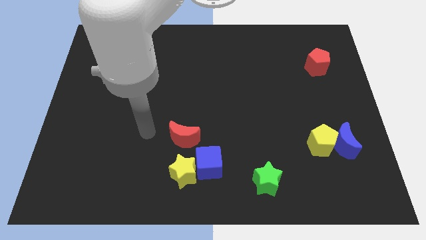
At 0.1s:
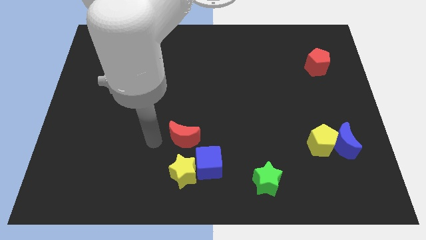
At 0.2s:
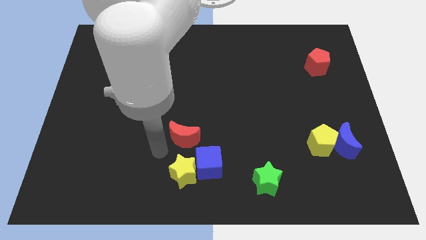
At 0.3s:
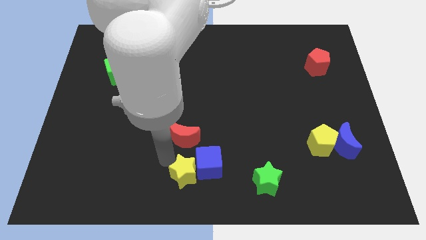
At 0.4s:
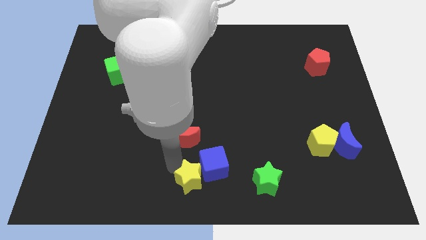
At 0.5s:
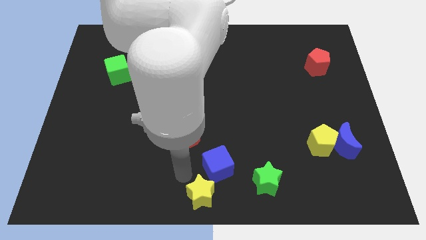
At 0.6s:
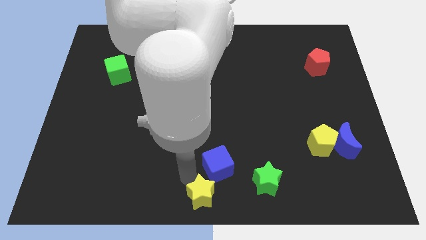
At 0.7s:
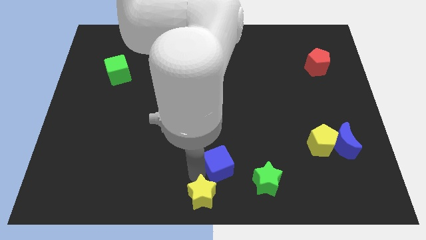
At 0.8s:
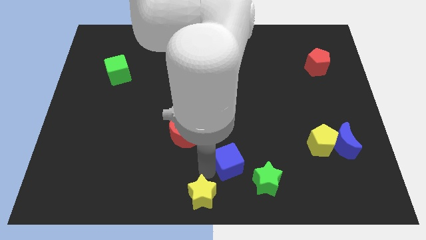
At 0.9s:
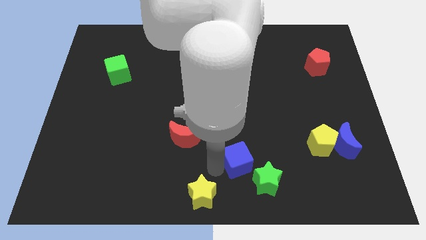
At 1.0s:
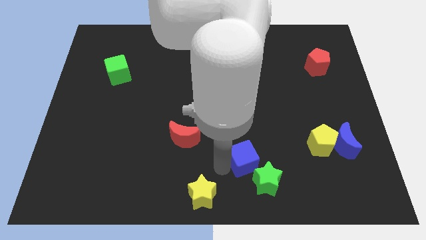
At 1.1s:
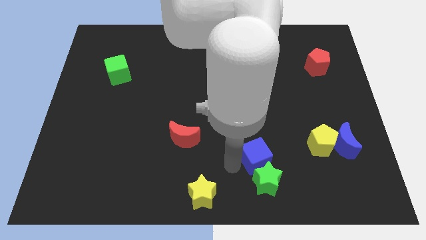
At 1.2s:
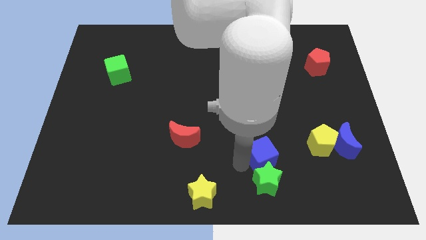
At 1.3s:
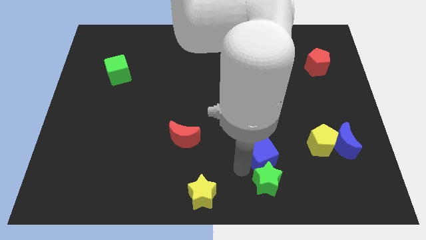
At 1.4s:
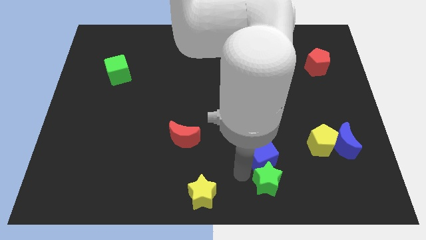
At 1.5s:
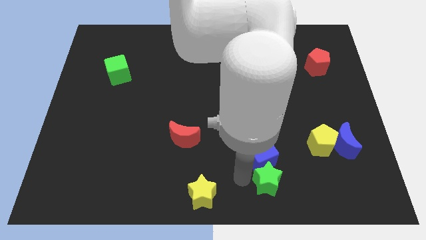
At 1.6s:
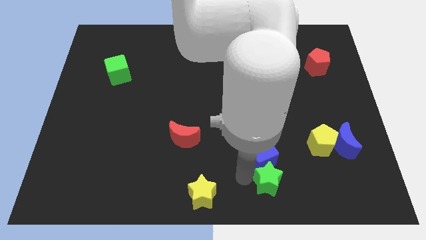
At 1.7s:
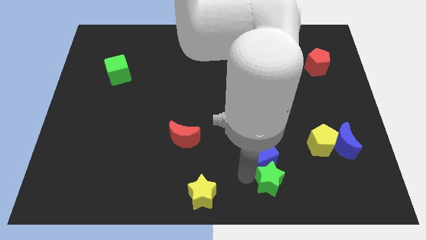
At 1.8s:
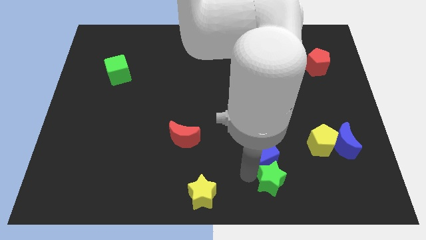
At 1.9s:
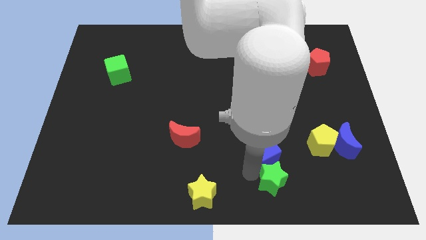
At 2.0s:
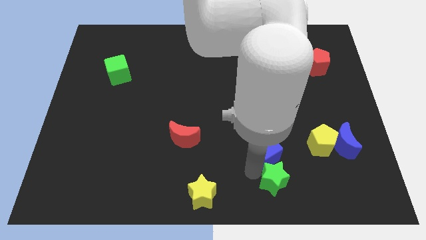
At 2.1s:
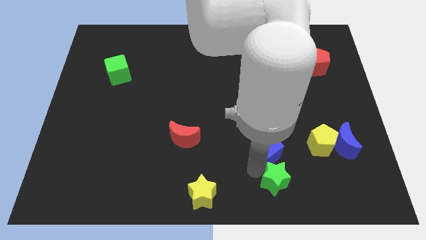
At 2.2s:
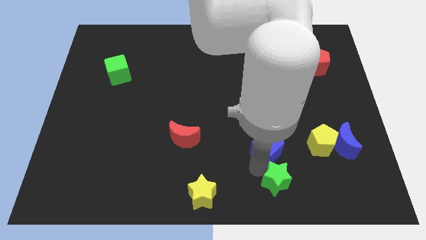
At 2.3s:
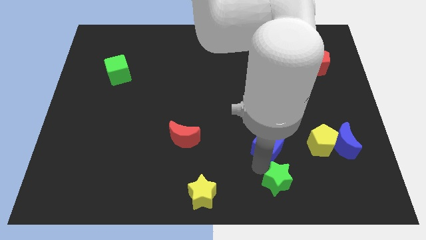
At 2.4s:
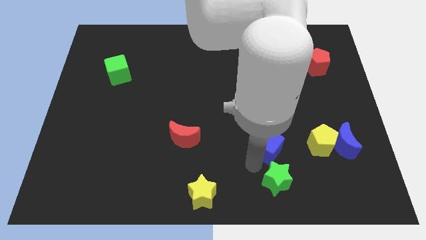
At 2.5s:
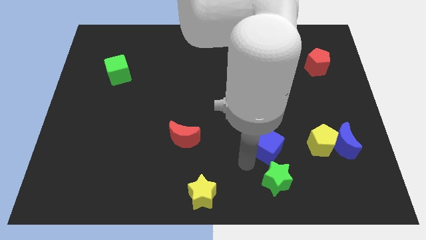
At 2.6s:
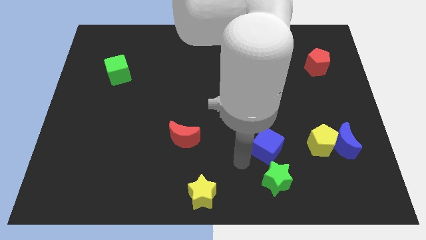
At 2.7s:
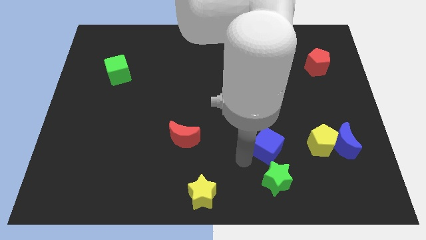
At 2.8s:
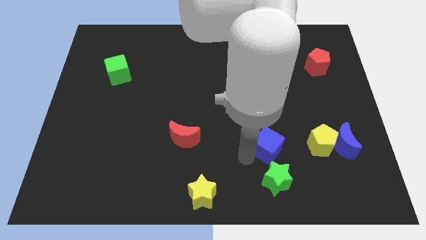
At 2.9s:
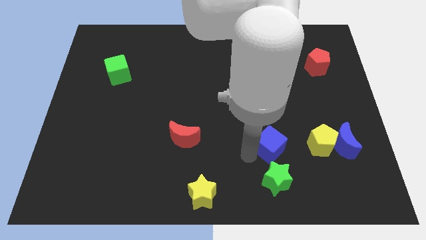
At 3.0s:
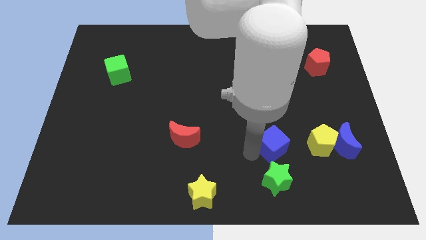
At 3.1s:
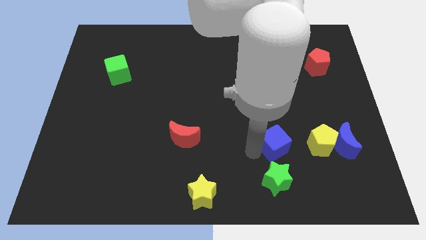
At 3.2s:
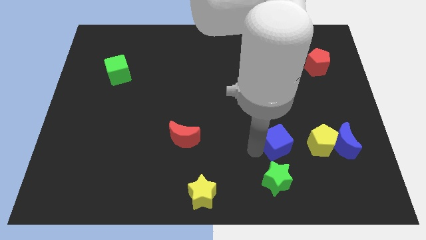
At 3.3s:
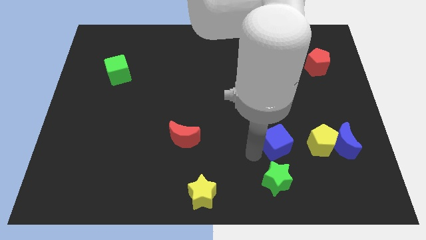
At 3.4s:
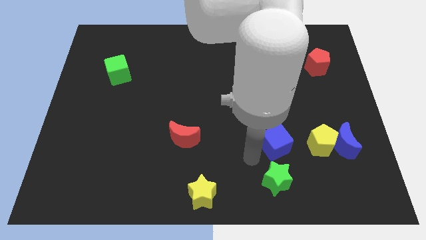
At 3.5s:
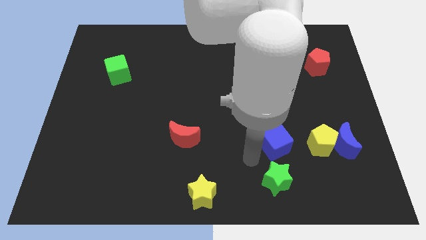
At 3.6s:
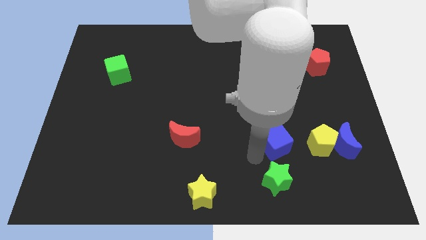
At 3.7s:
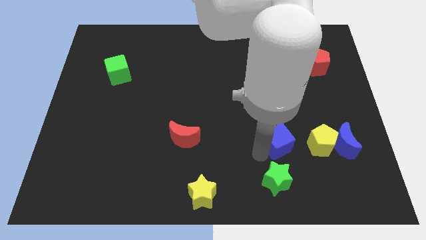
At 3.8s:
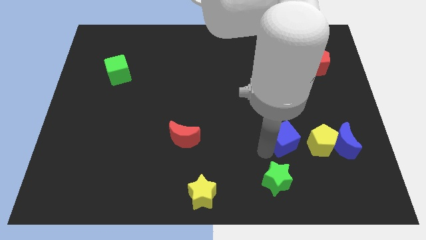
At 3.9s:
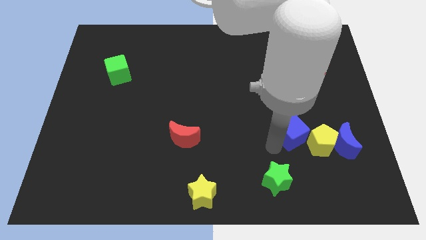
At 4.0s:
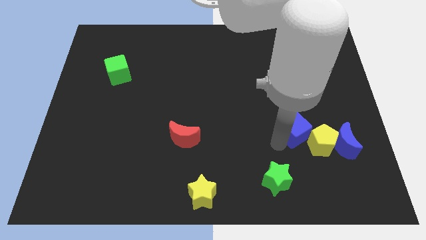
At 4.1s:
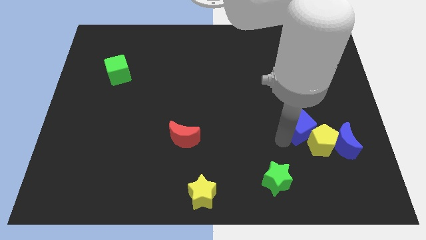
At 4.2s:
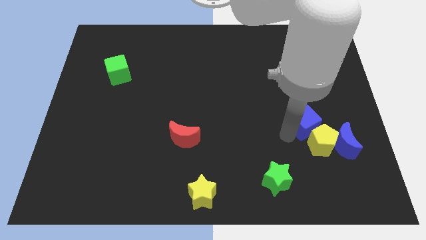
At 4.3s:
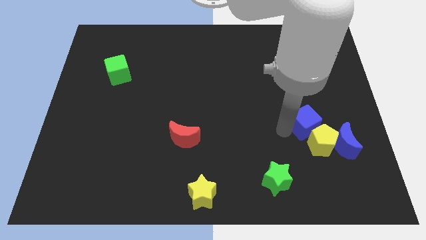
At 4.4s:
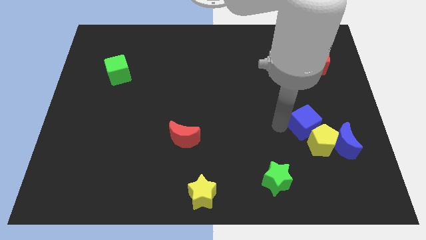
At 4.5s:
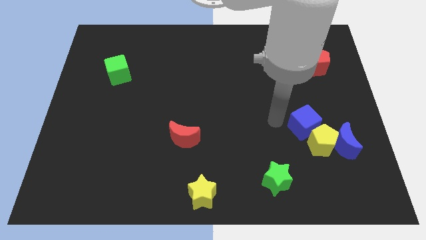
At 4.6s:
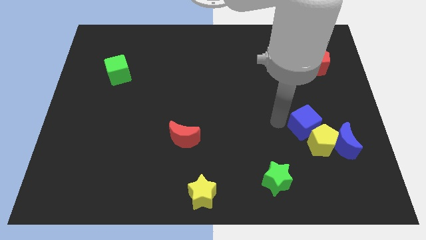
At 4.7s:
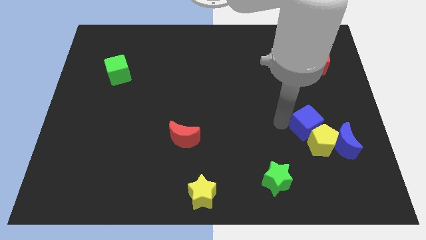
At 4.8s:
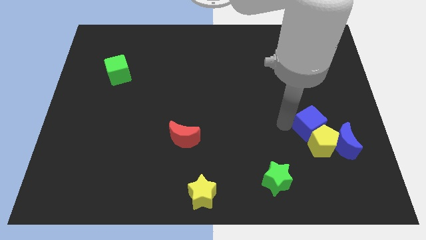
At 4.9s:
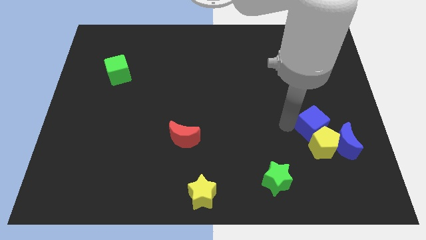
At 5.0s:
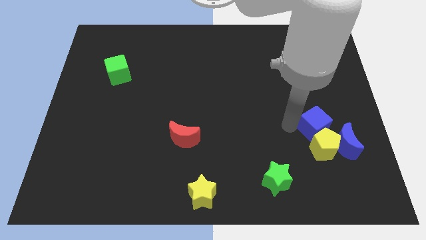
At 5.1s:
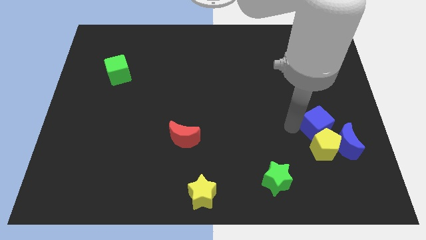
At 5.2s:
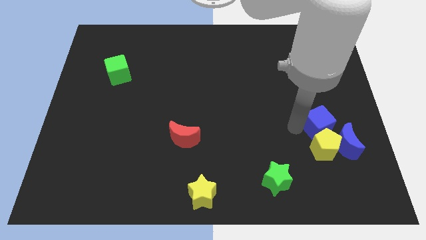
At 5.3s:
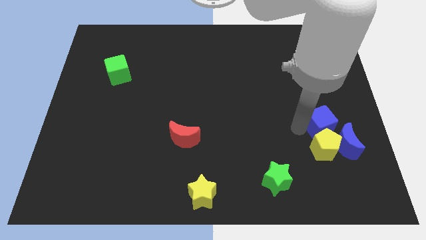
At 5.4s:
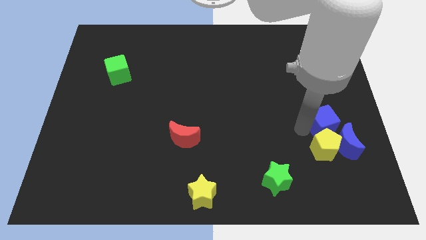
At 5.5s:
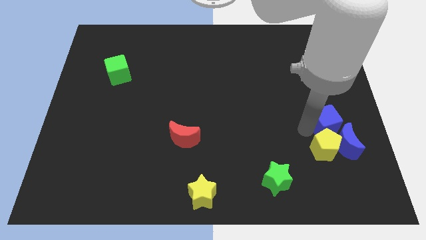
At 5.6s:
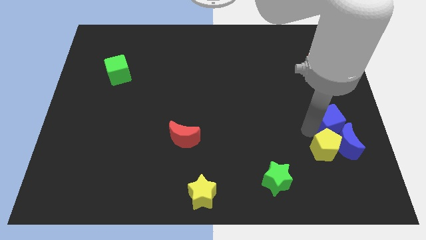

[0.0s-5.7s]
move the blue cube next to the blue moon

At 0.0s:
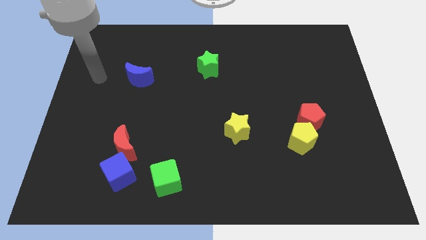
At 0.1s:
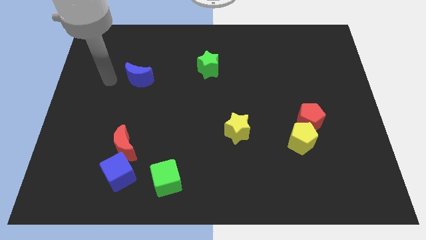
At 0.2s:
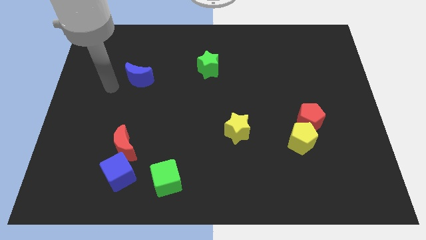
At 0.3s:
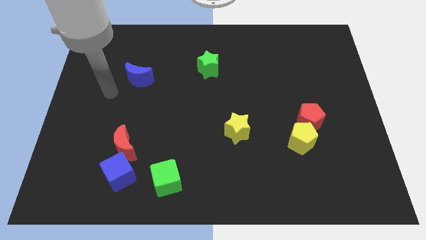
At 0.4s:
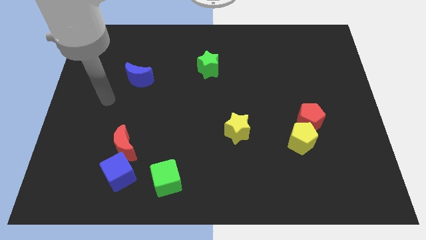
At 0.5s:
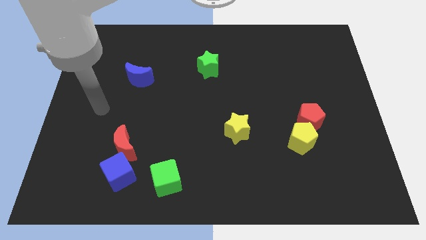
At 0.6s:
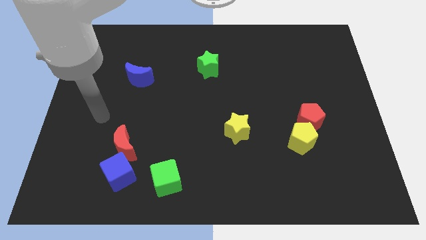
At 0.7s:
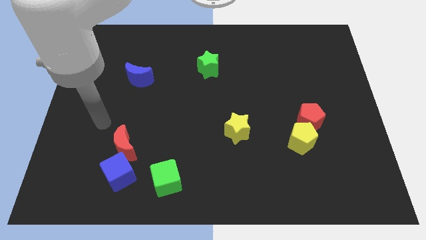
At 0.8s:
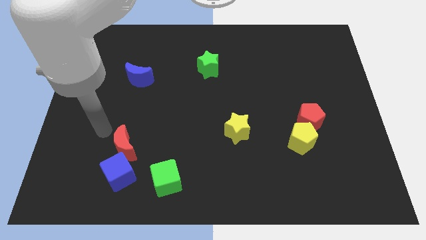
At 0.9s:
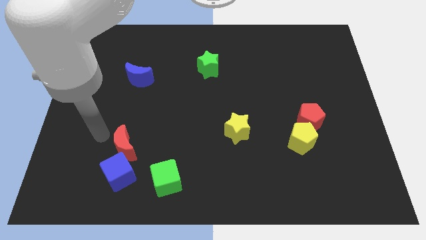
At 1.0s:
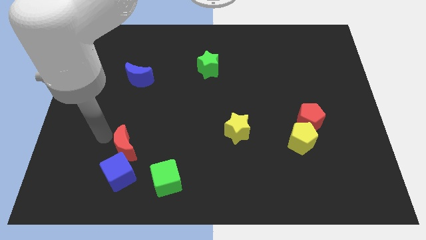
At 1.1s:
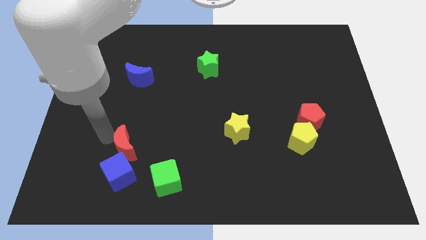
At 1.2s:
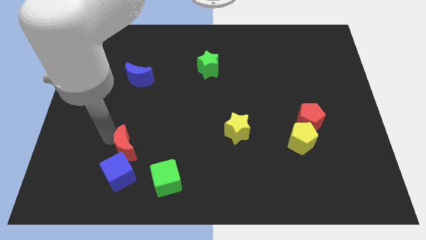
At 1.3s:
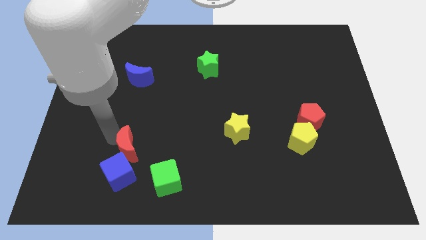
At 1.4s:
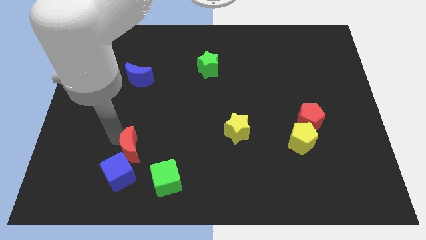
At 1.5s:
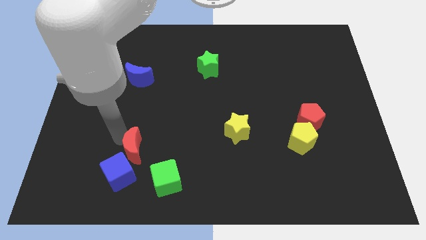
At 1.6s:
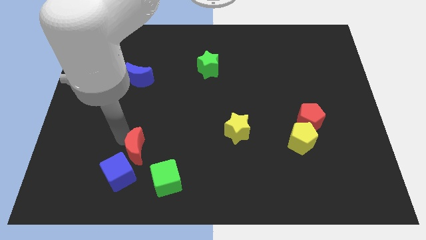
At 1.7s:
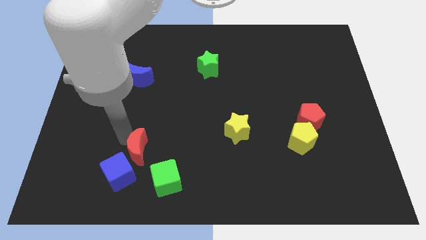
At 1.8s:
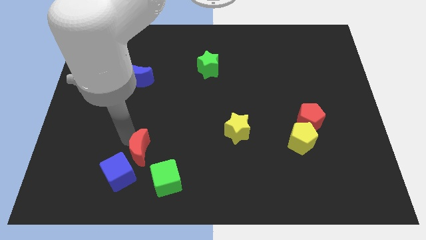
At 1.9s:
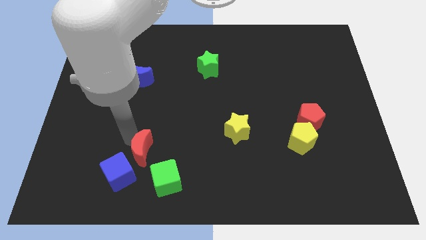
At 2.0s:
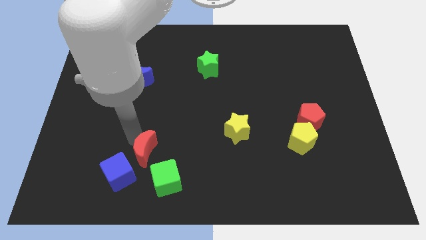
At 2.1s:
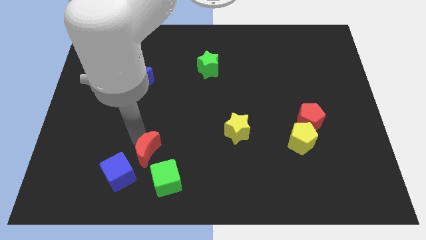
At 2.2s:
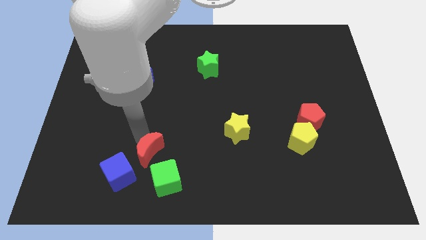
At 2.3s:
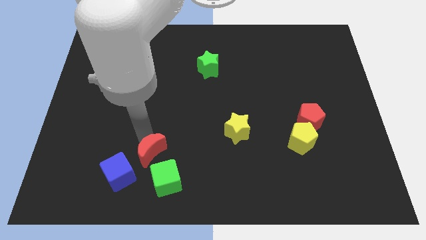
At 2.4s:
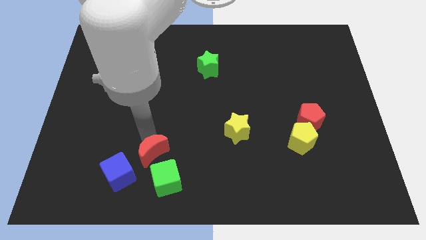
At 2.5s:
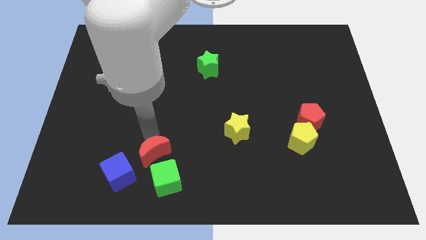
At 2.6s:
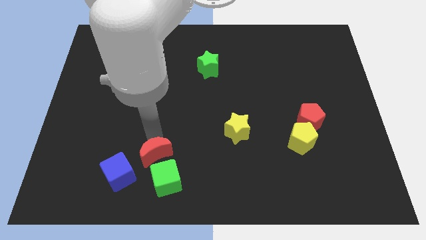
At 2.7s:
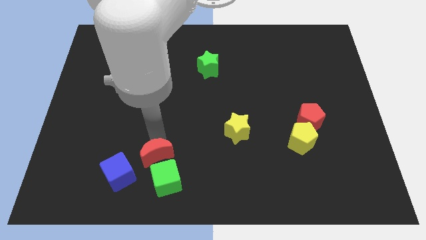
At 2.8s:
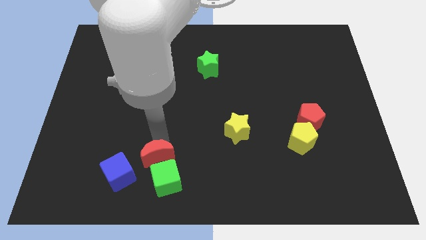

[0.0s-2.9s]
move the red moon next to the green cube
